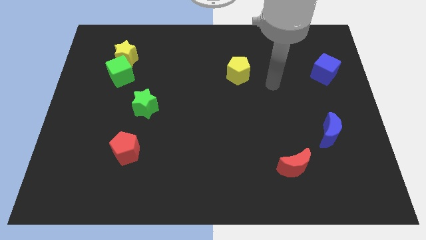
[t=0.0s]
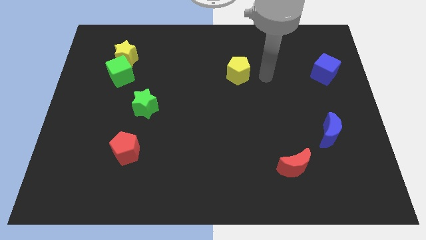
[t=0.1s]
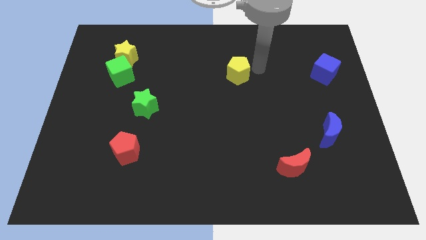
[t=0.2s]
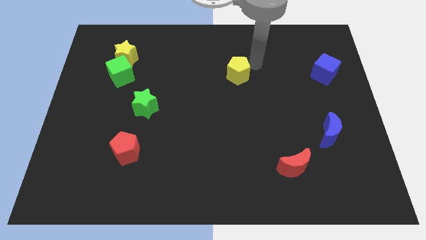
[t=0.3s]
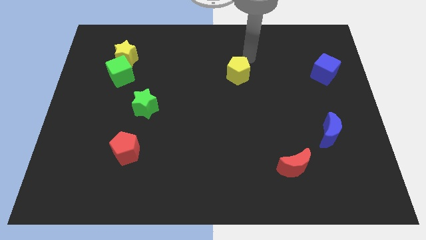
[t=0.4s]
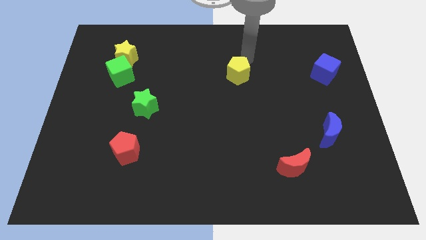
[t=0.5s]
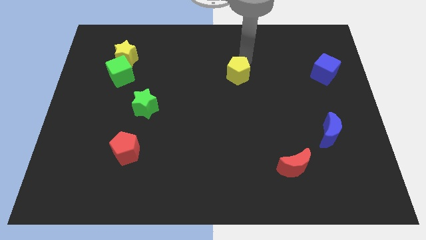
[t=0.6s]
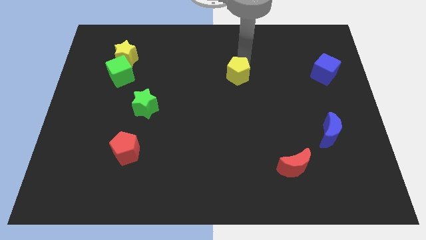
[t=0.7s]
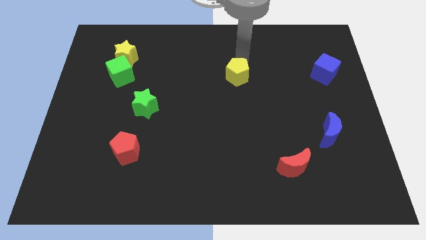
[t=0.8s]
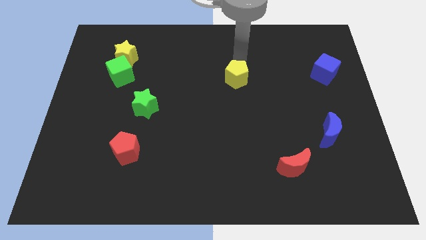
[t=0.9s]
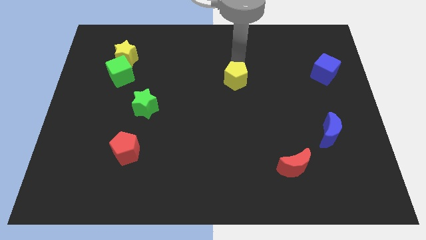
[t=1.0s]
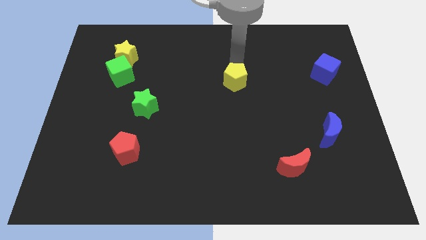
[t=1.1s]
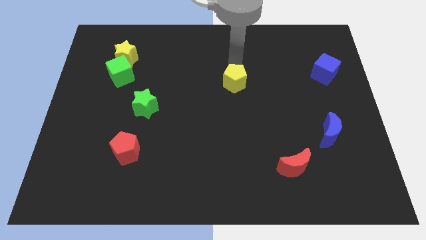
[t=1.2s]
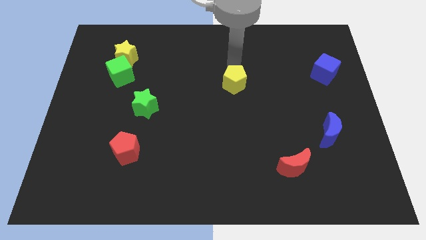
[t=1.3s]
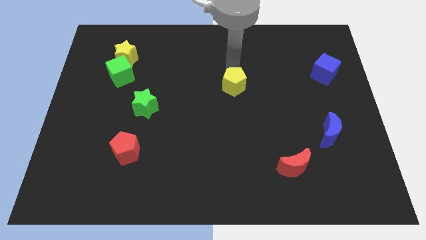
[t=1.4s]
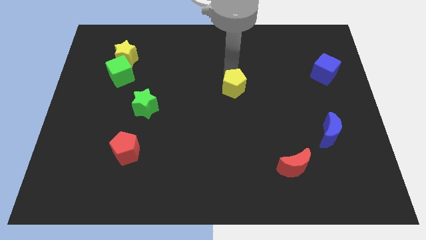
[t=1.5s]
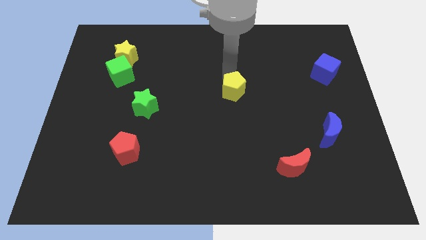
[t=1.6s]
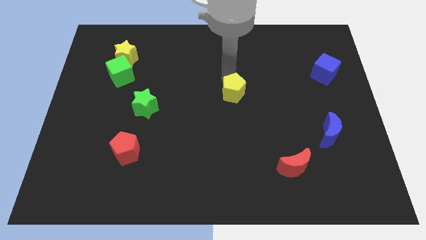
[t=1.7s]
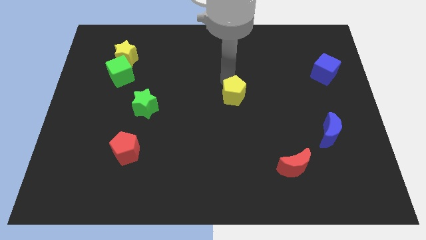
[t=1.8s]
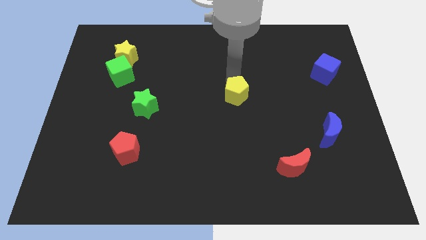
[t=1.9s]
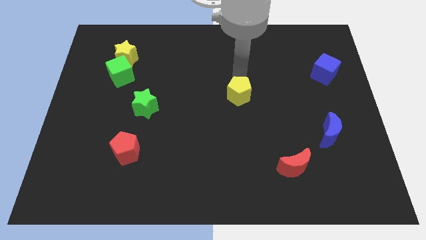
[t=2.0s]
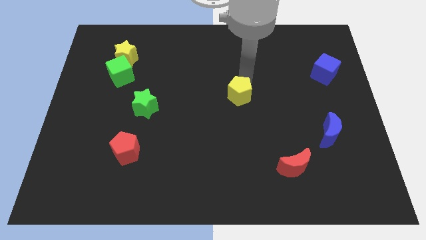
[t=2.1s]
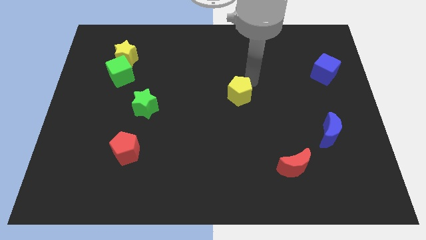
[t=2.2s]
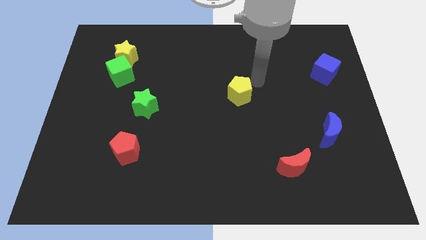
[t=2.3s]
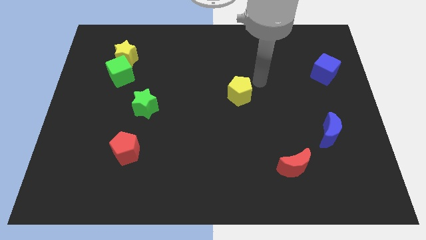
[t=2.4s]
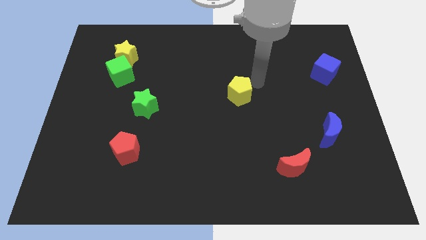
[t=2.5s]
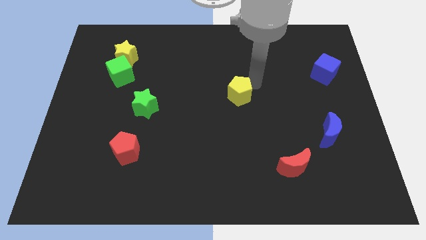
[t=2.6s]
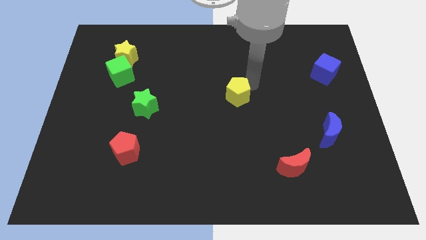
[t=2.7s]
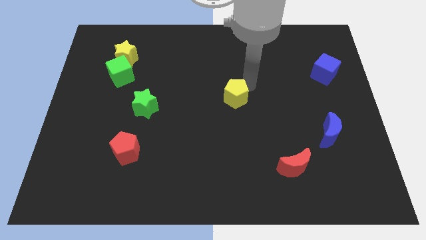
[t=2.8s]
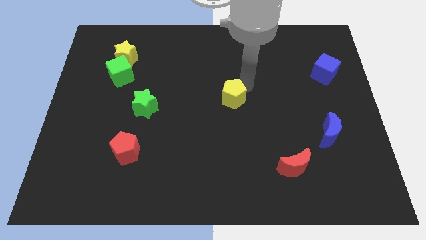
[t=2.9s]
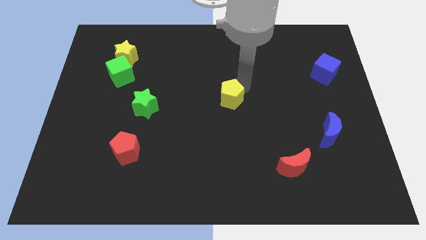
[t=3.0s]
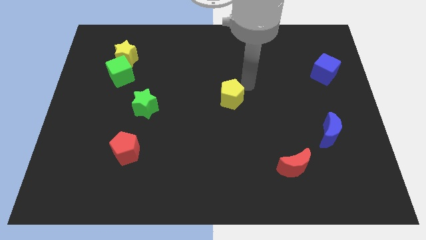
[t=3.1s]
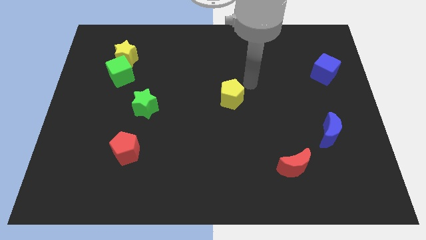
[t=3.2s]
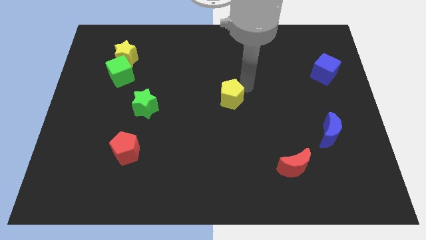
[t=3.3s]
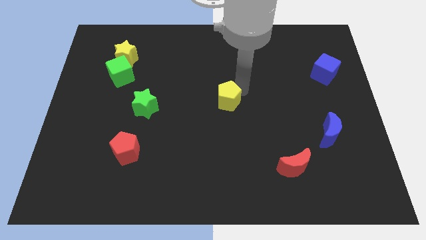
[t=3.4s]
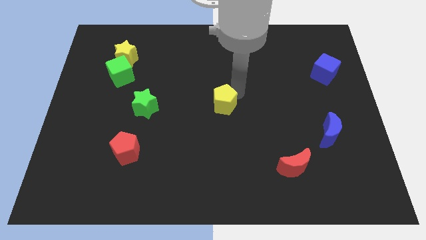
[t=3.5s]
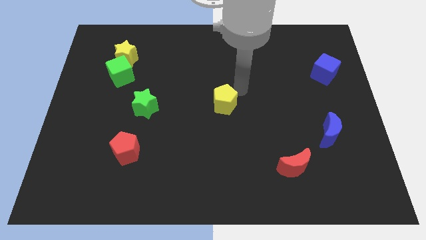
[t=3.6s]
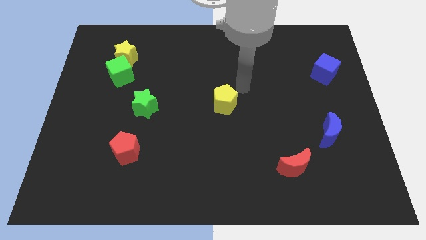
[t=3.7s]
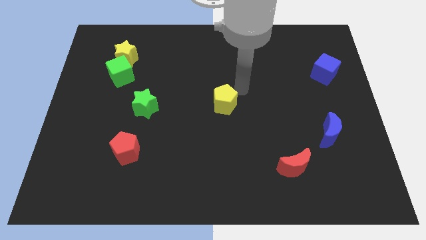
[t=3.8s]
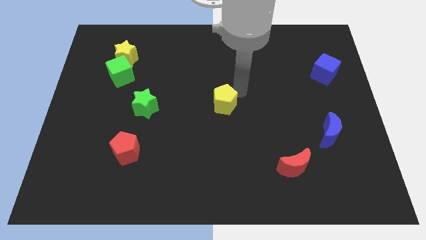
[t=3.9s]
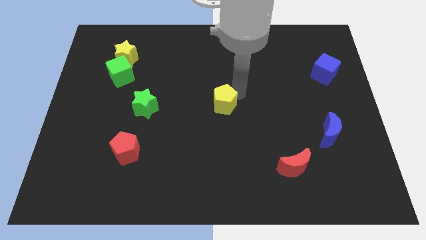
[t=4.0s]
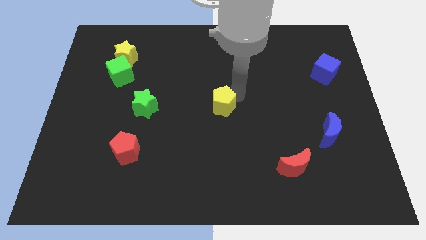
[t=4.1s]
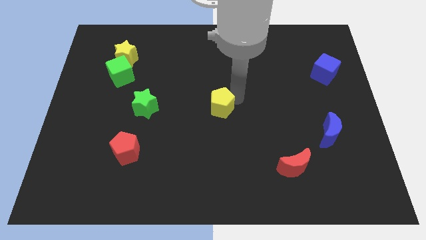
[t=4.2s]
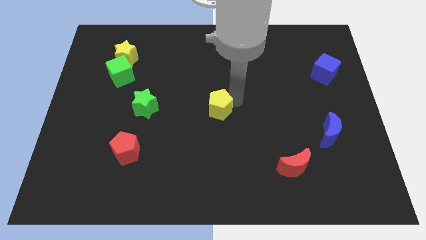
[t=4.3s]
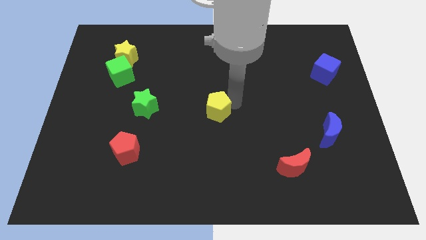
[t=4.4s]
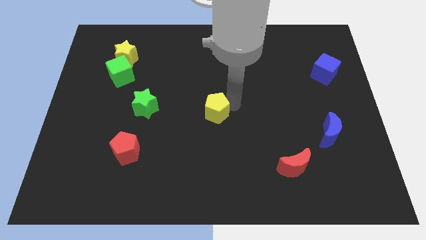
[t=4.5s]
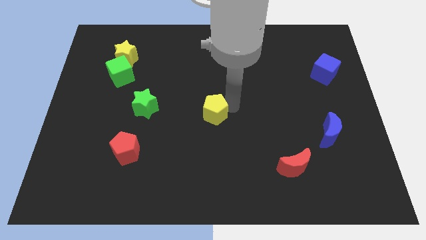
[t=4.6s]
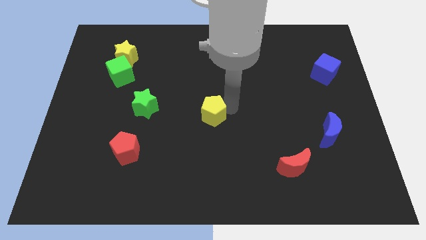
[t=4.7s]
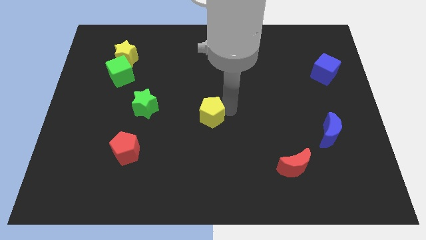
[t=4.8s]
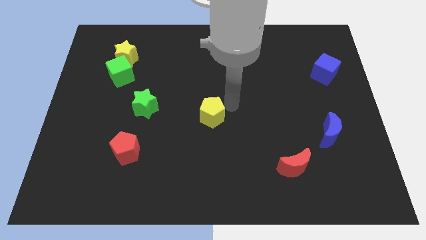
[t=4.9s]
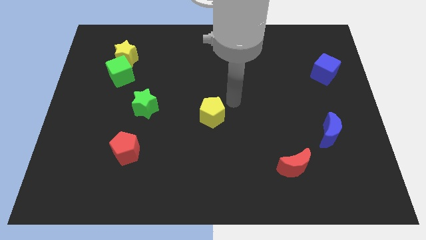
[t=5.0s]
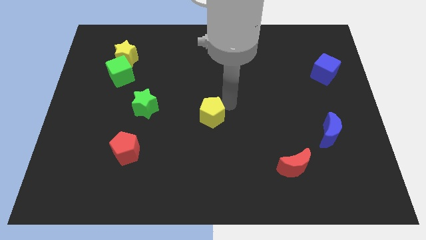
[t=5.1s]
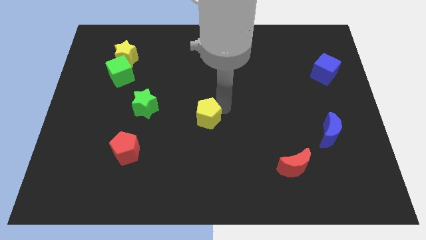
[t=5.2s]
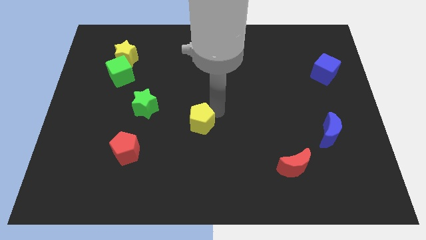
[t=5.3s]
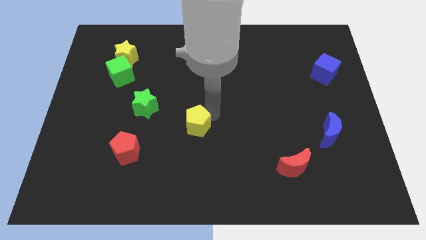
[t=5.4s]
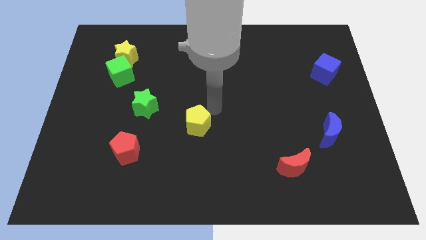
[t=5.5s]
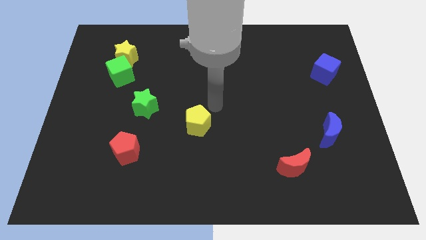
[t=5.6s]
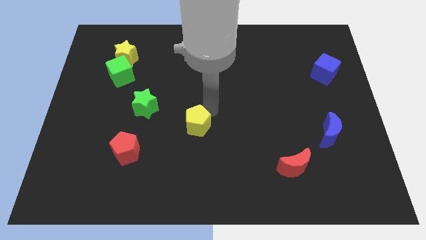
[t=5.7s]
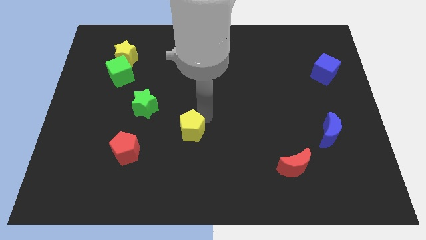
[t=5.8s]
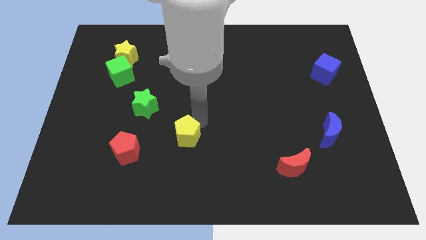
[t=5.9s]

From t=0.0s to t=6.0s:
push the yellow pentagon to the right of the red pentagon

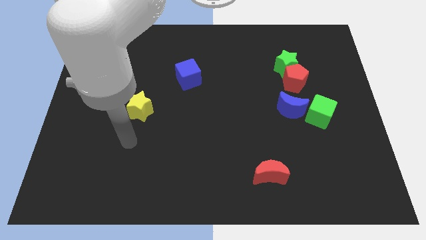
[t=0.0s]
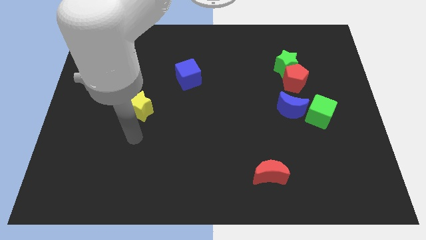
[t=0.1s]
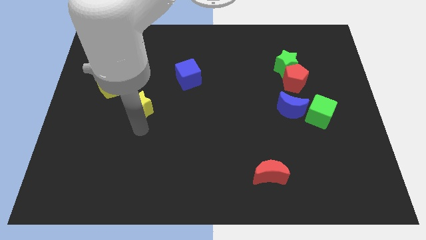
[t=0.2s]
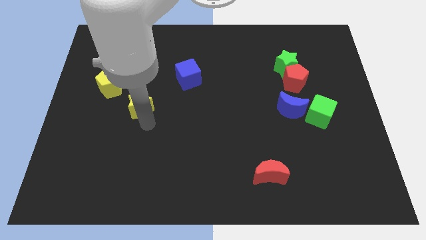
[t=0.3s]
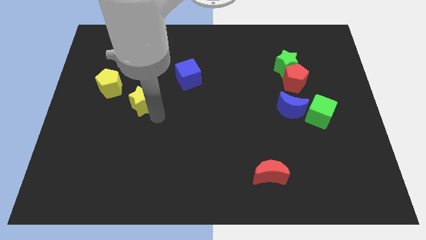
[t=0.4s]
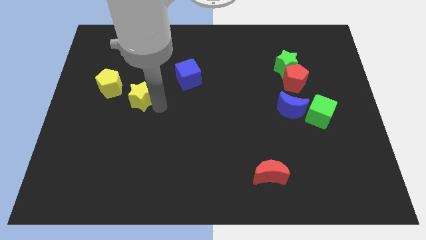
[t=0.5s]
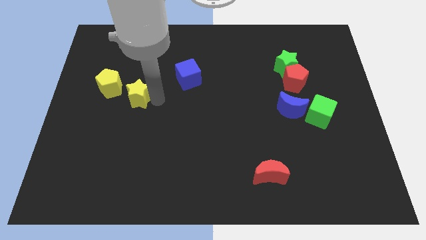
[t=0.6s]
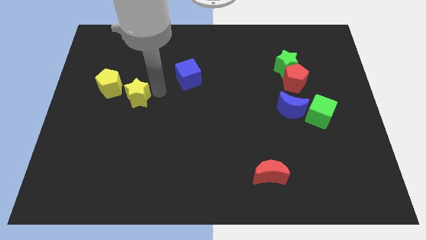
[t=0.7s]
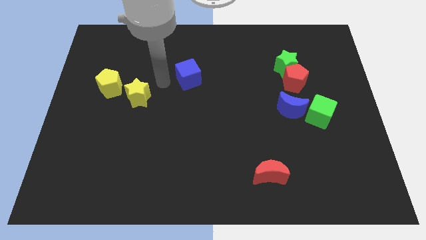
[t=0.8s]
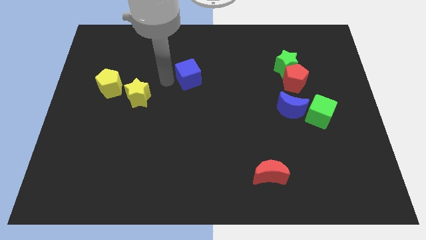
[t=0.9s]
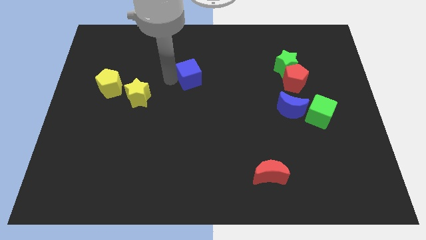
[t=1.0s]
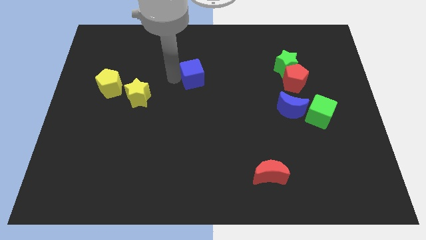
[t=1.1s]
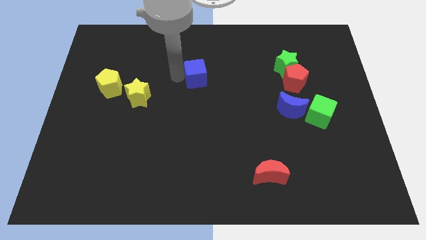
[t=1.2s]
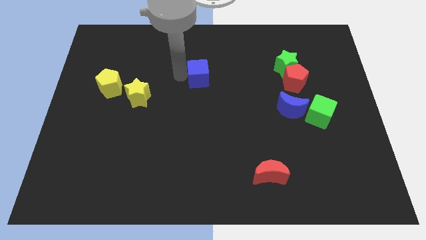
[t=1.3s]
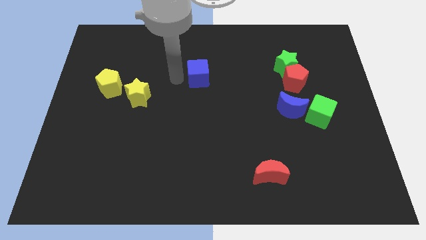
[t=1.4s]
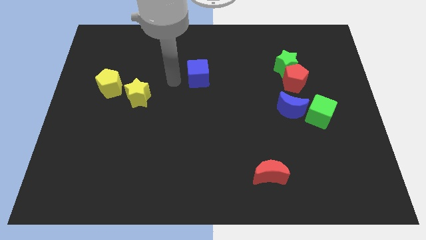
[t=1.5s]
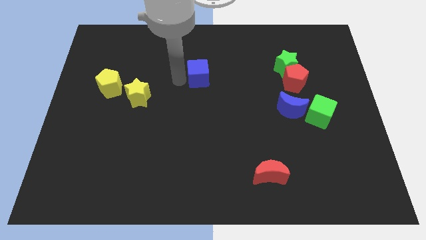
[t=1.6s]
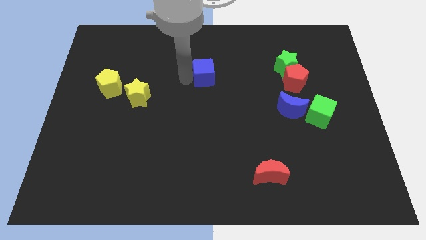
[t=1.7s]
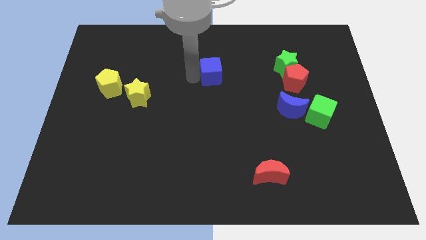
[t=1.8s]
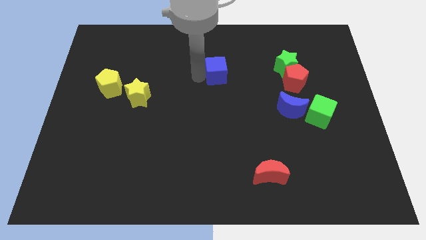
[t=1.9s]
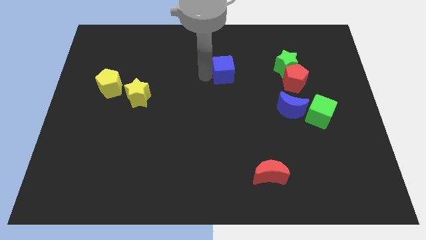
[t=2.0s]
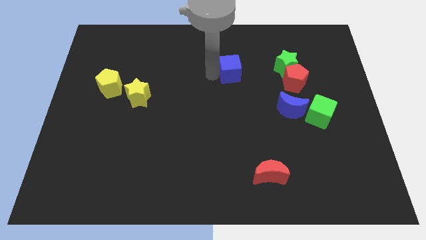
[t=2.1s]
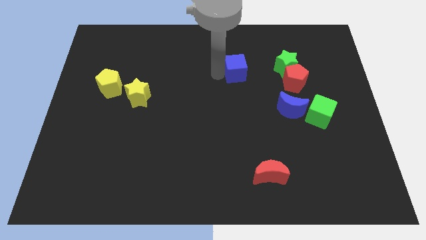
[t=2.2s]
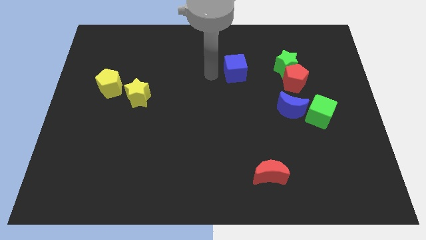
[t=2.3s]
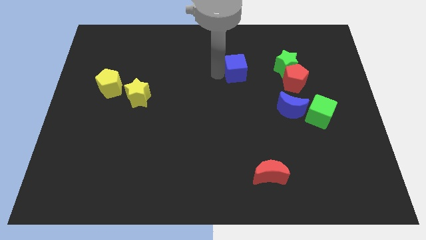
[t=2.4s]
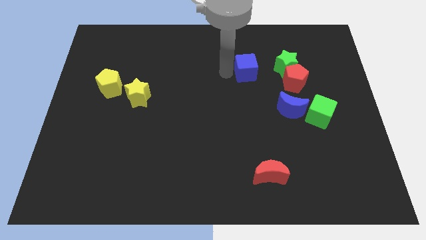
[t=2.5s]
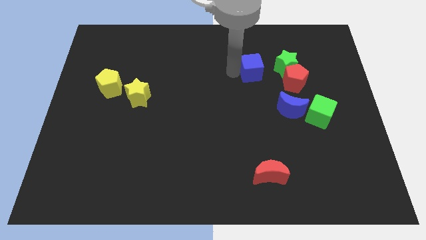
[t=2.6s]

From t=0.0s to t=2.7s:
push the blue cube to the top left side of the red pentagon
